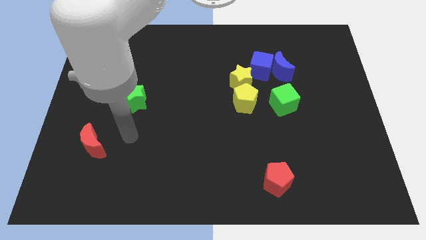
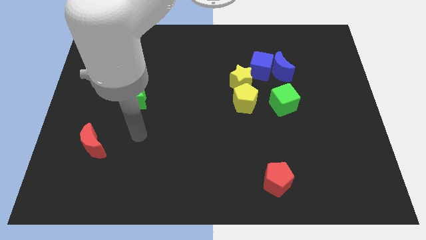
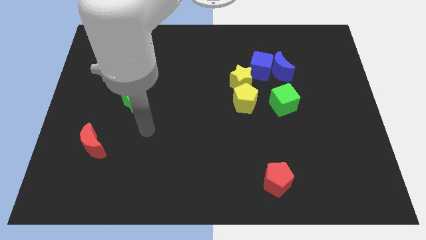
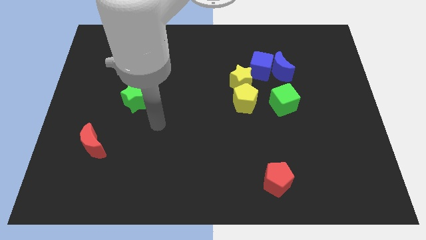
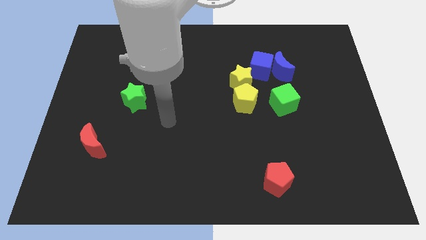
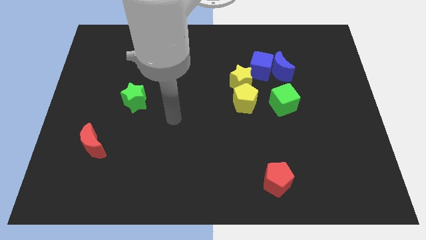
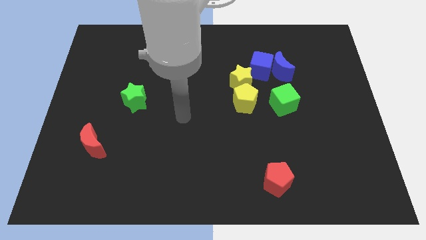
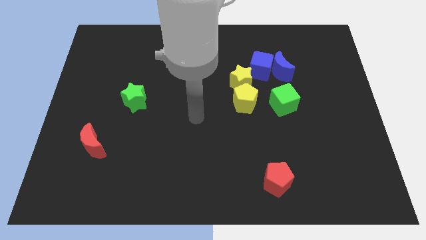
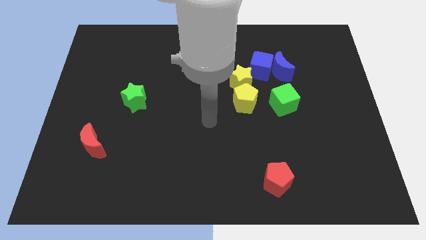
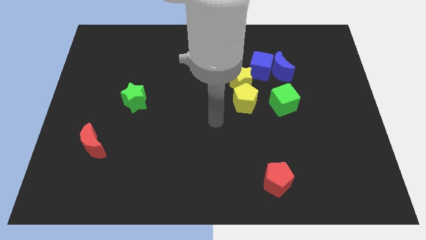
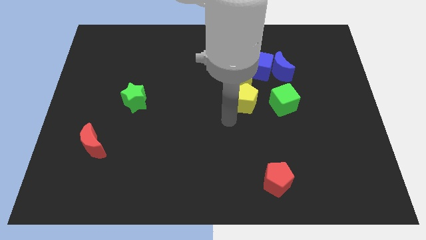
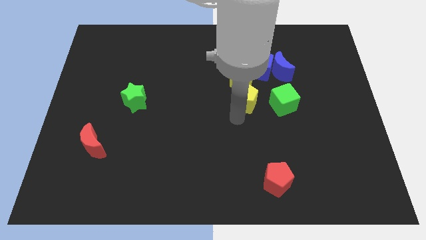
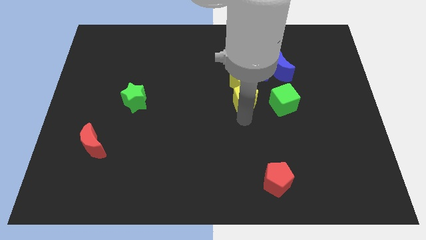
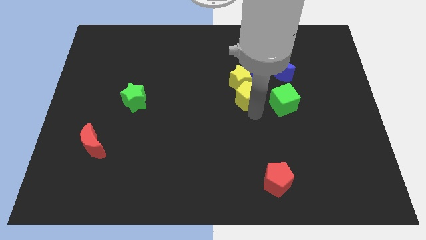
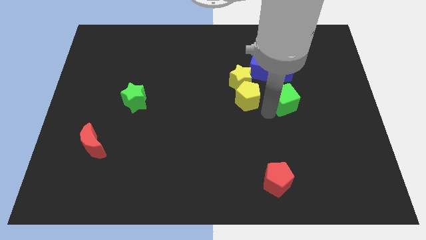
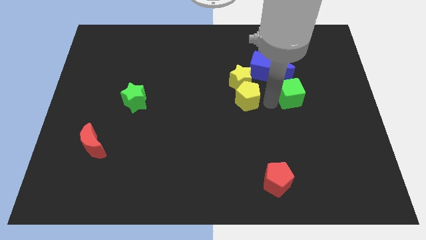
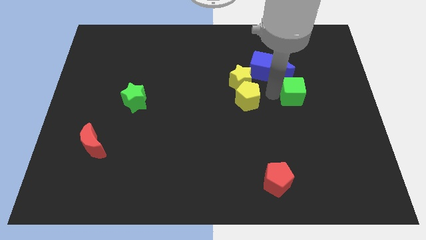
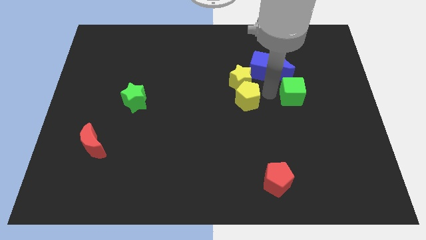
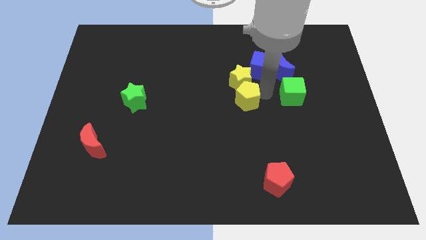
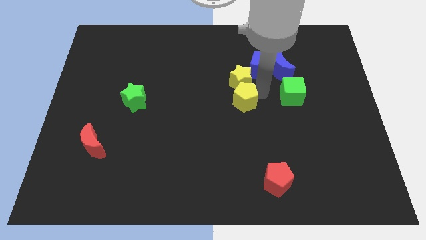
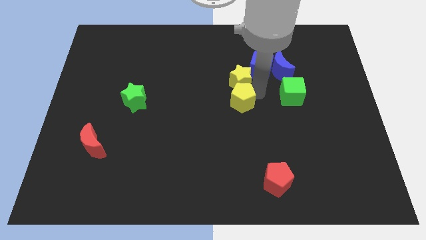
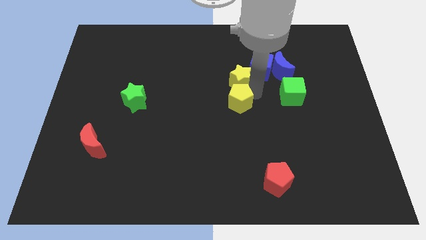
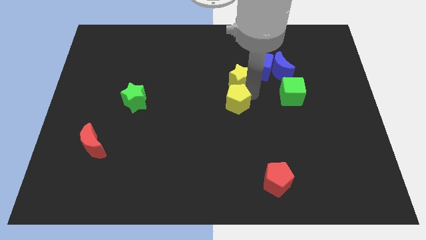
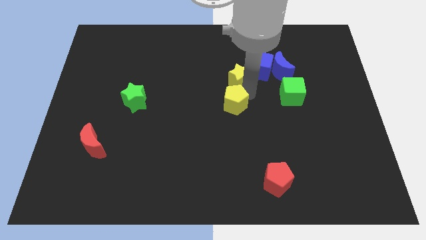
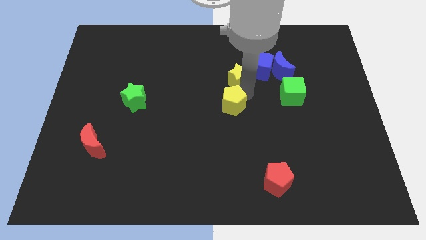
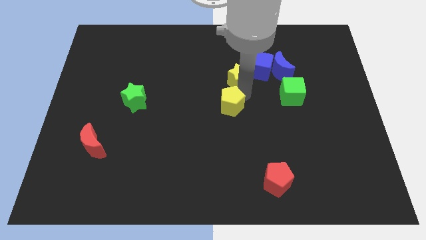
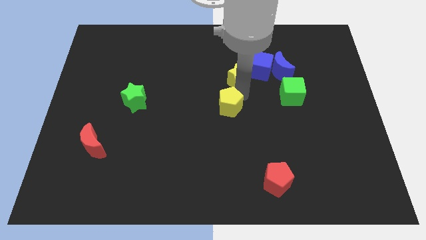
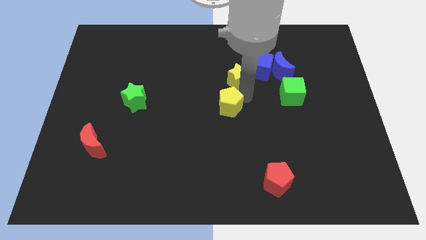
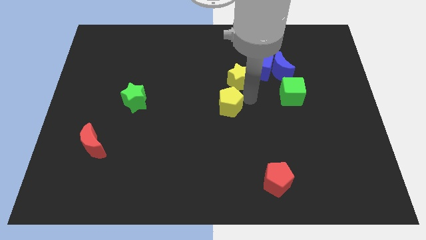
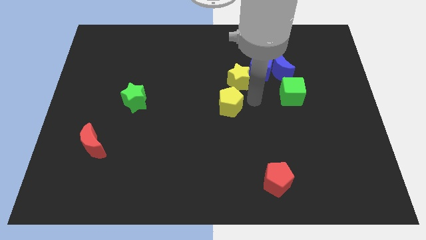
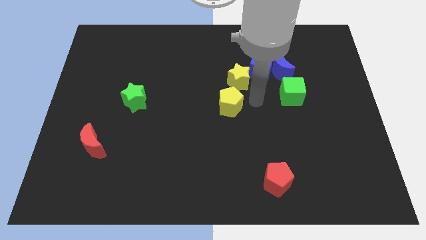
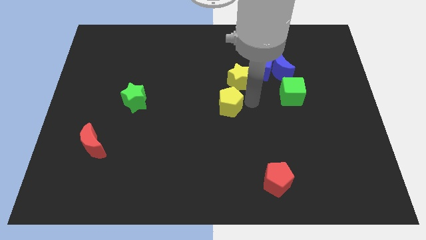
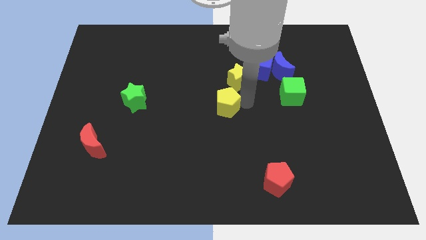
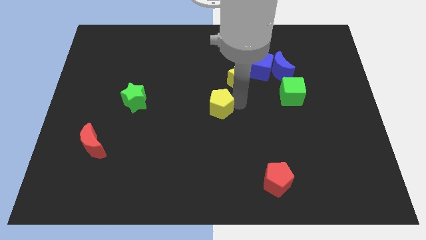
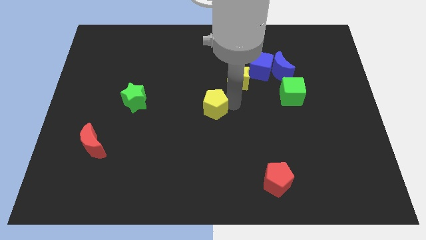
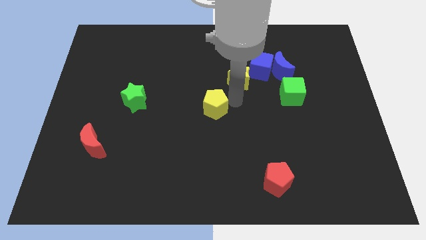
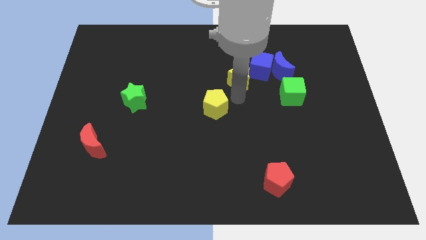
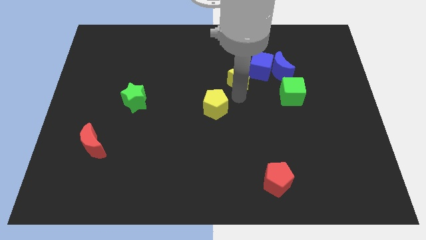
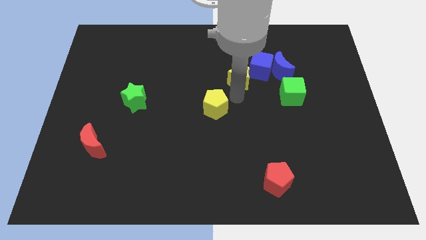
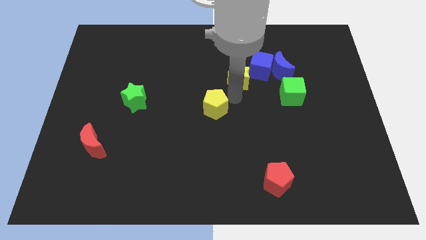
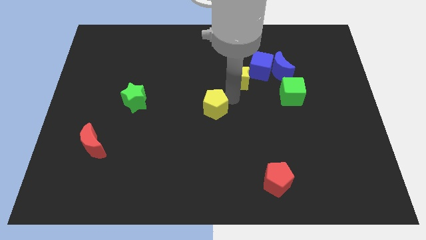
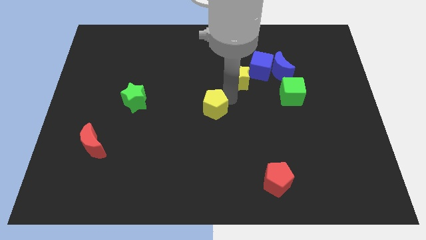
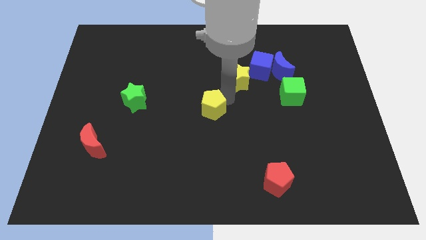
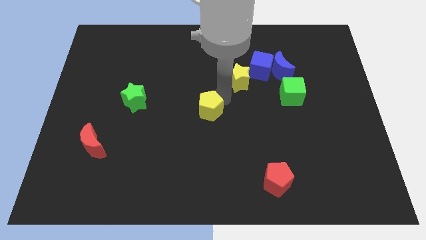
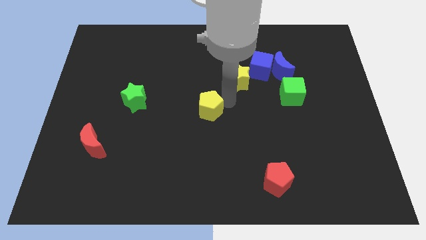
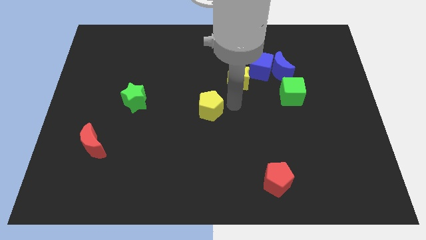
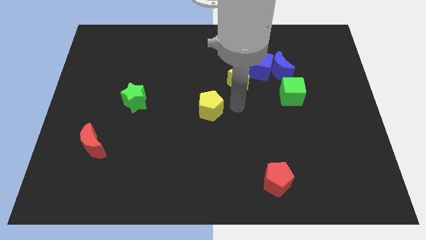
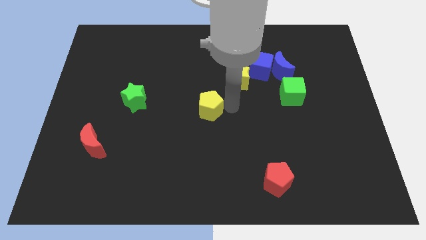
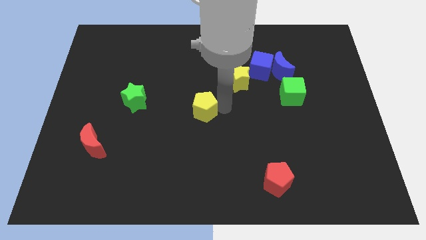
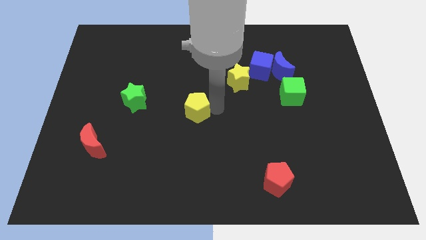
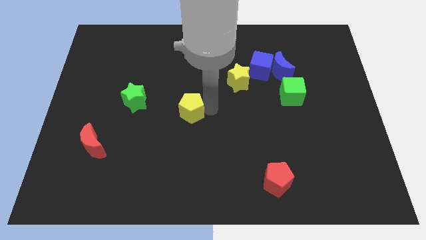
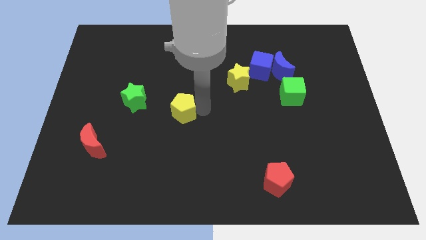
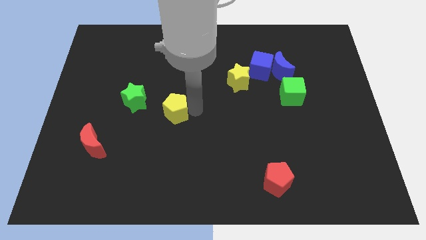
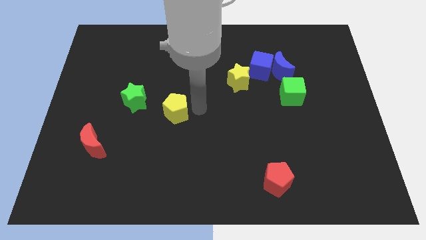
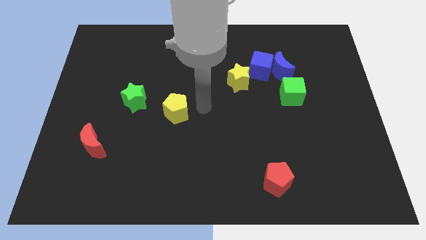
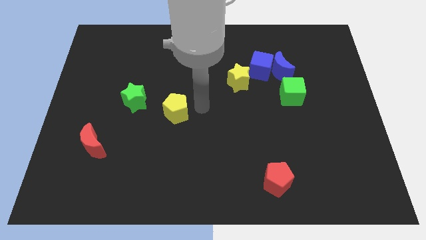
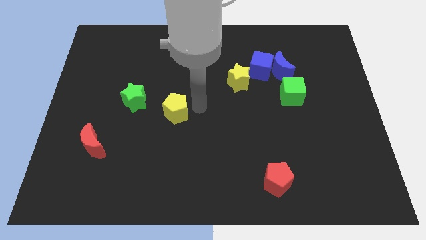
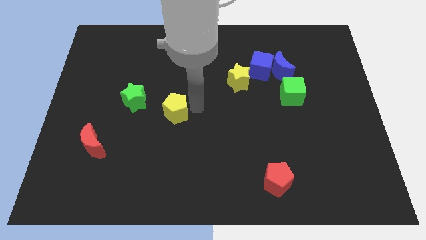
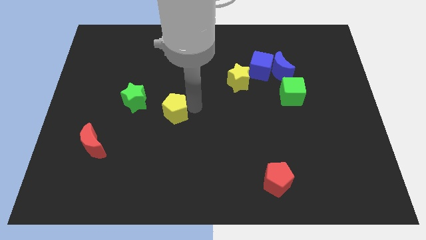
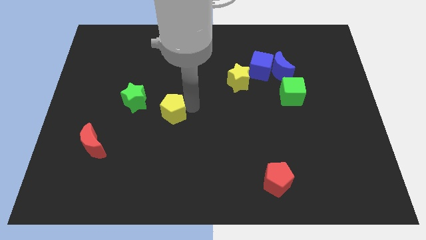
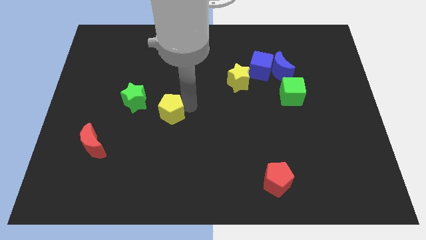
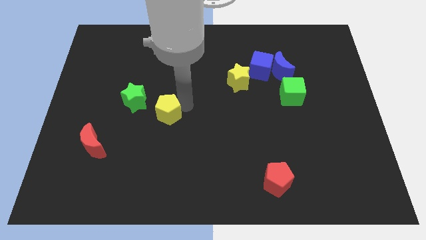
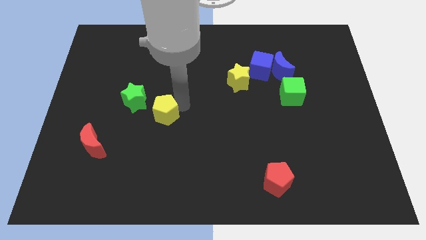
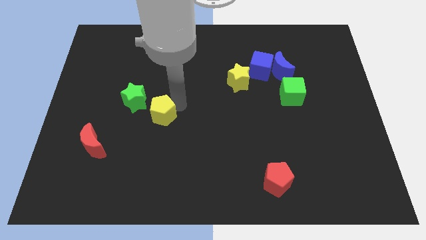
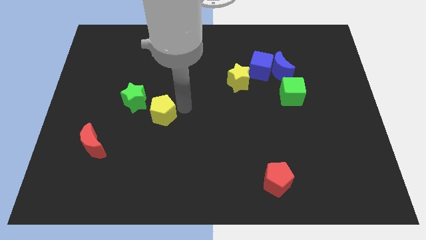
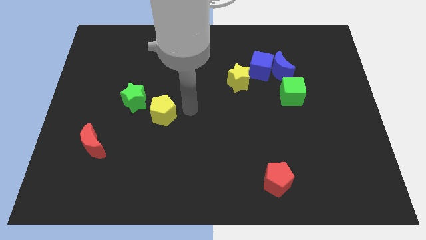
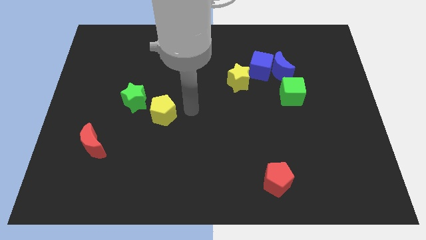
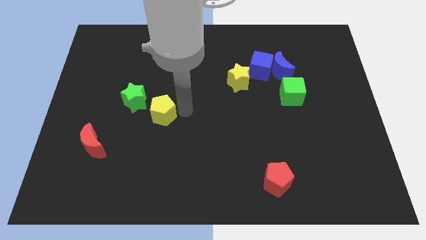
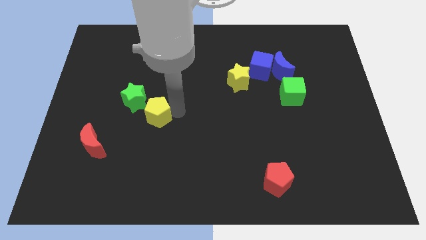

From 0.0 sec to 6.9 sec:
push the yellow pentagon left

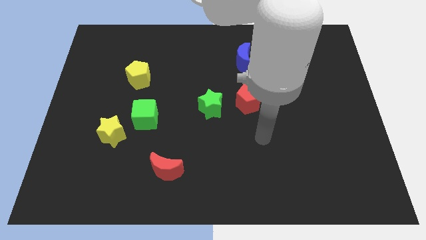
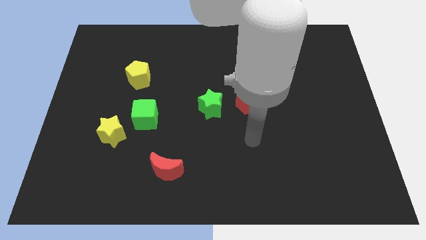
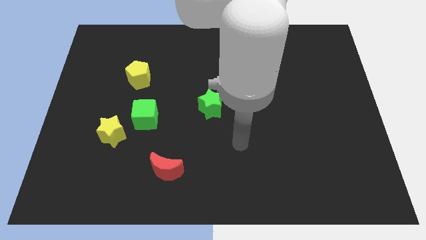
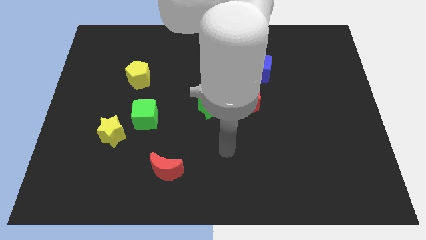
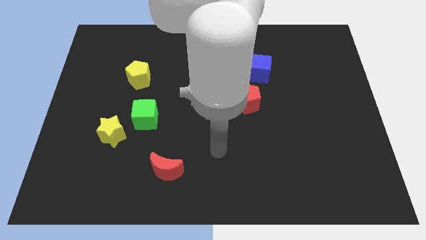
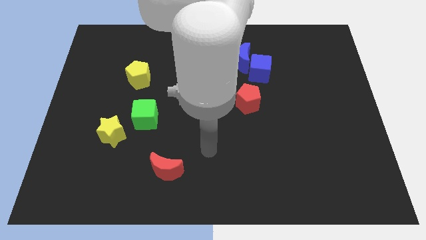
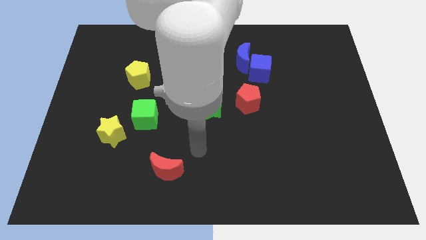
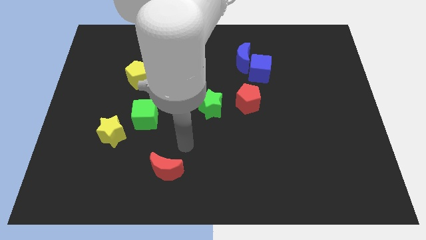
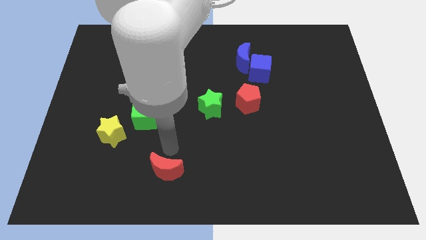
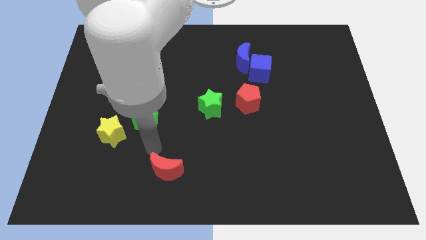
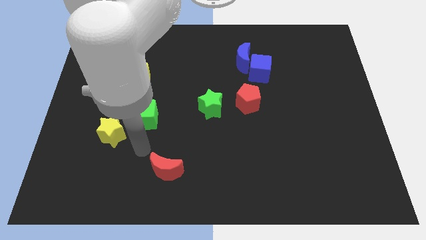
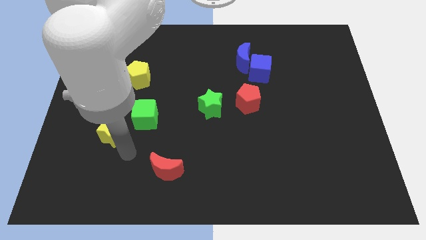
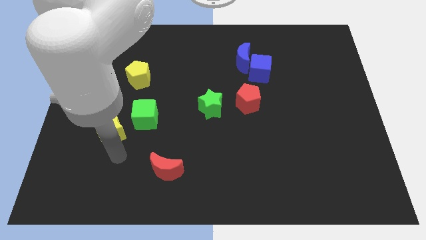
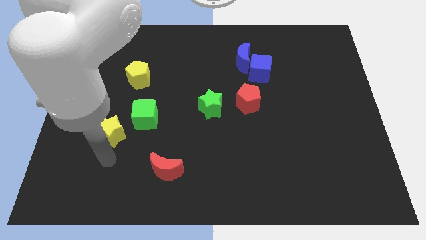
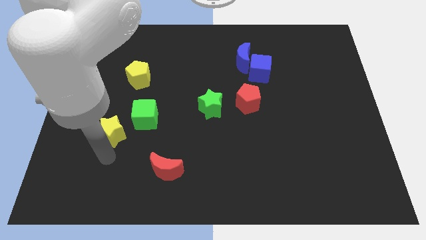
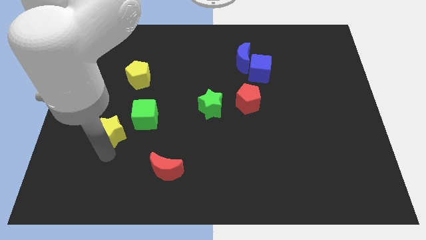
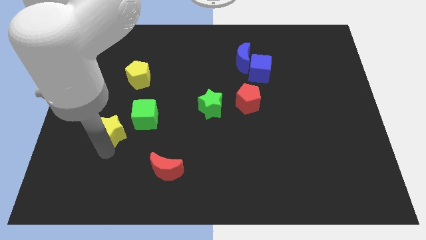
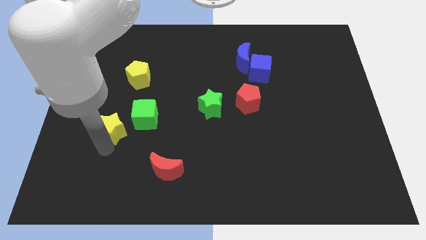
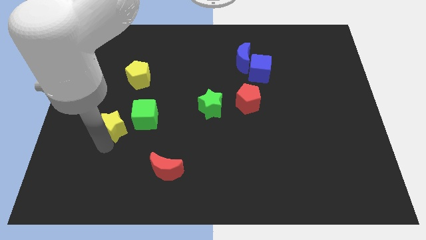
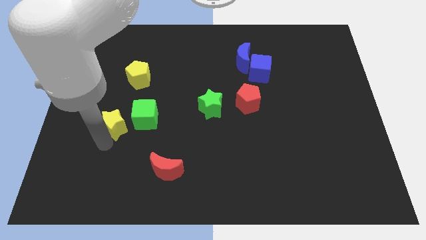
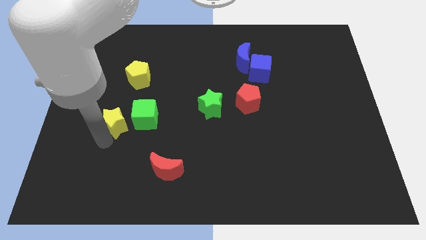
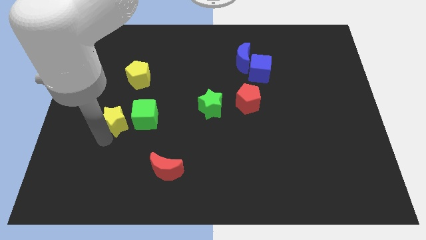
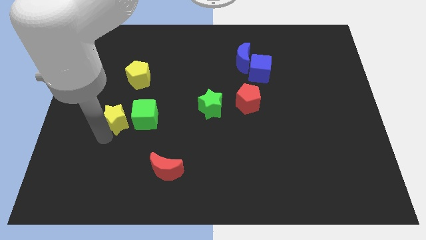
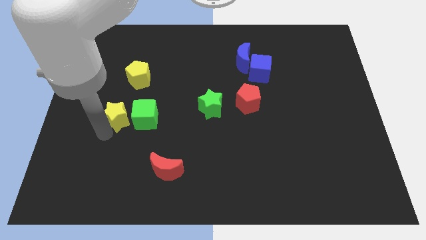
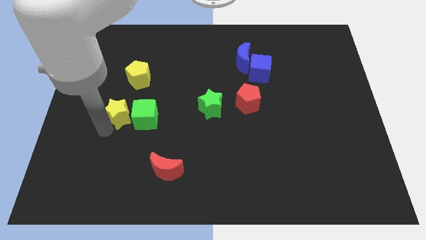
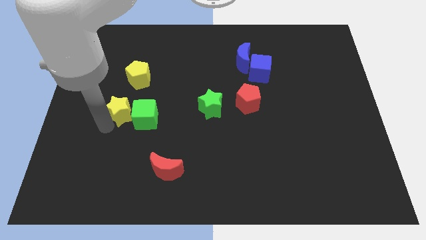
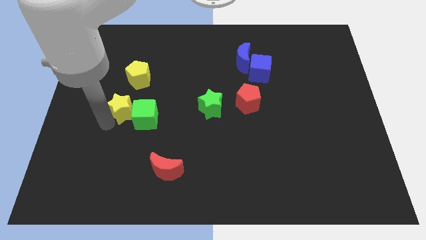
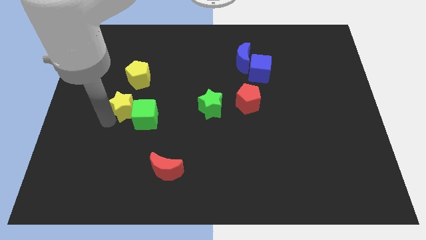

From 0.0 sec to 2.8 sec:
slightly push the yellow star up
